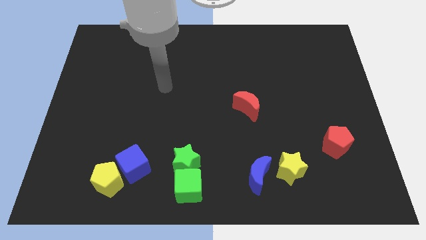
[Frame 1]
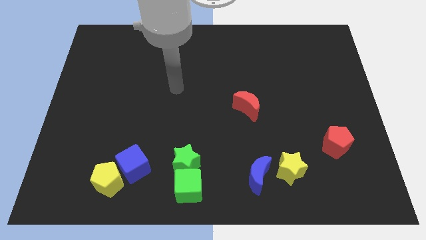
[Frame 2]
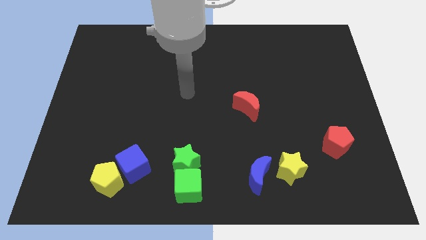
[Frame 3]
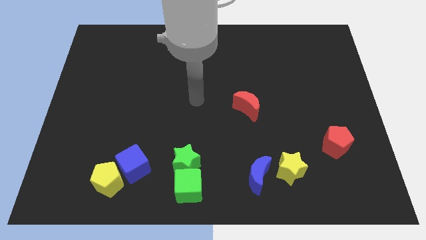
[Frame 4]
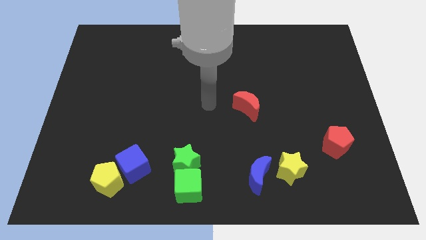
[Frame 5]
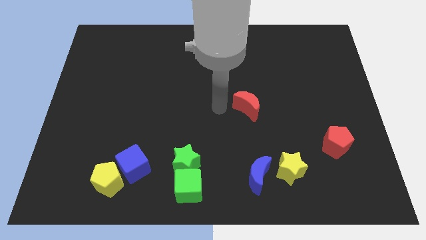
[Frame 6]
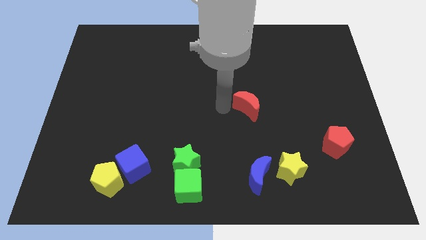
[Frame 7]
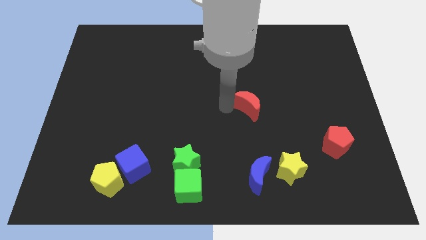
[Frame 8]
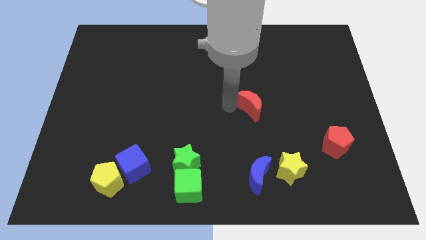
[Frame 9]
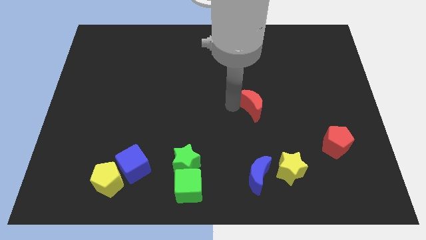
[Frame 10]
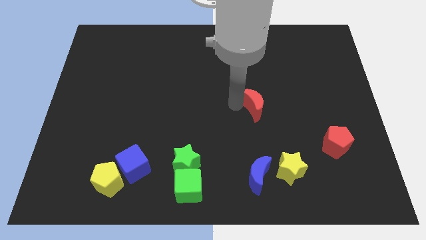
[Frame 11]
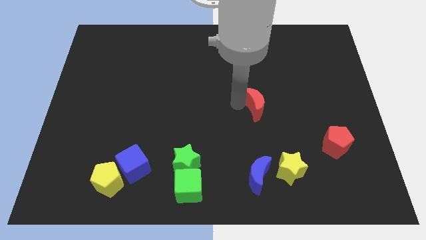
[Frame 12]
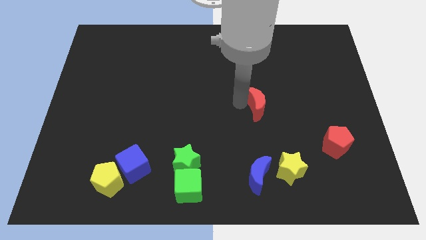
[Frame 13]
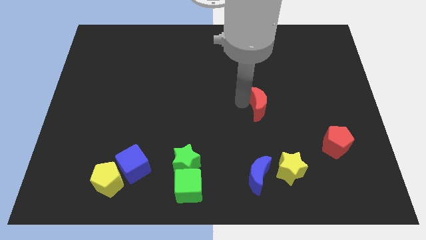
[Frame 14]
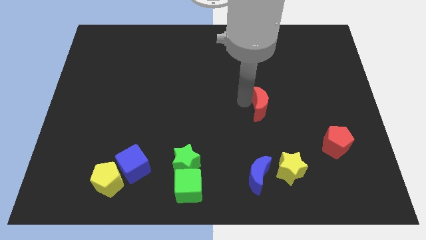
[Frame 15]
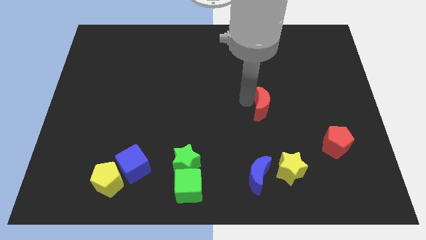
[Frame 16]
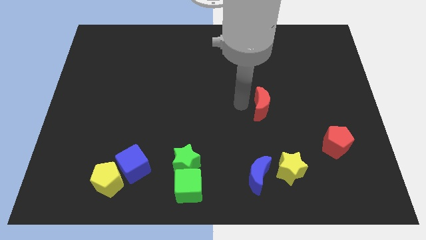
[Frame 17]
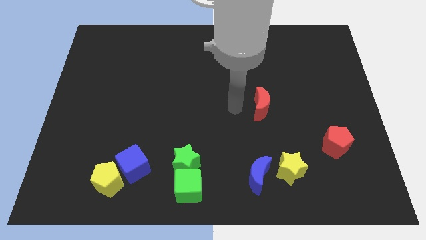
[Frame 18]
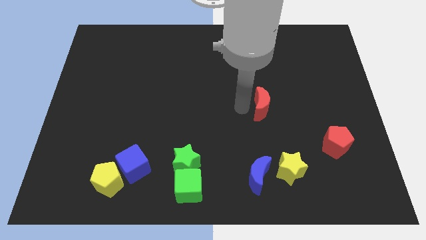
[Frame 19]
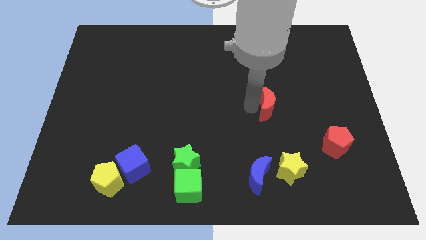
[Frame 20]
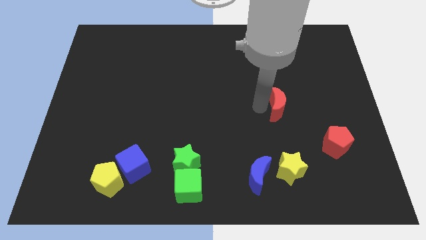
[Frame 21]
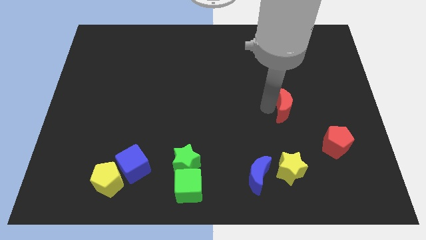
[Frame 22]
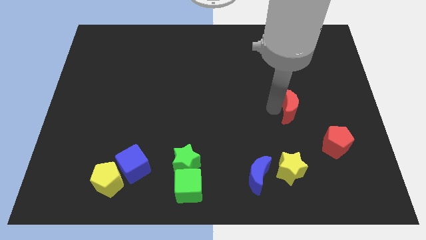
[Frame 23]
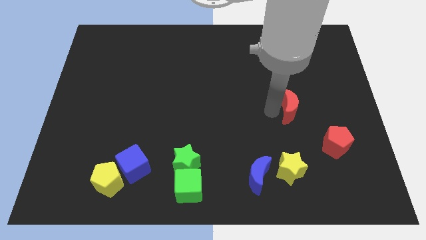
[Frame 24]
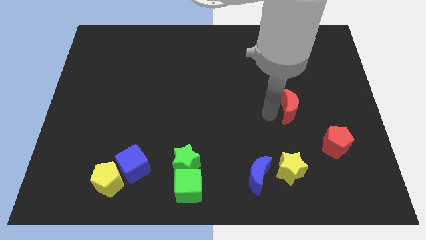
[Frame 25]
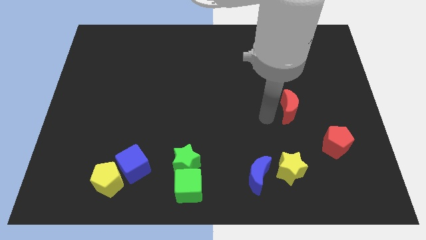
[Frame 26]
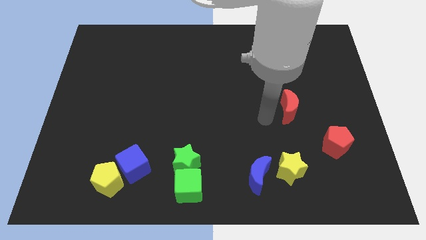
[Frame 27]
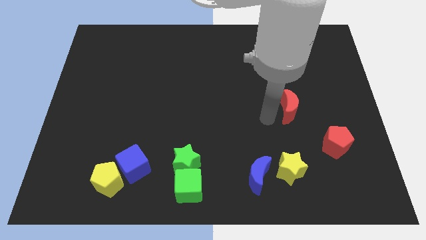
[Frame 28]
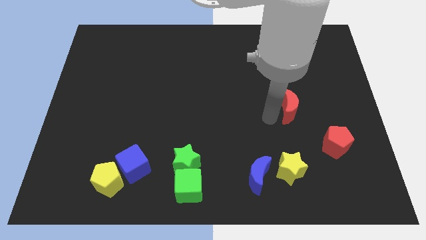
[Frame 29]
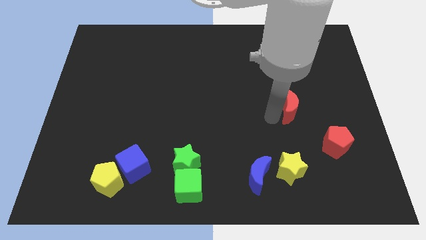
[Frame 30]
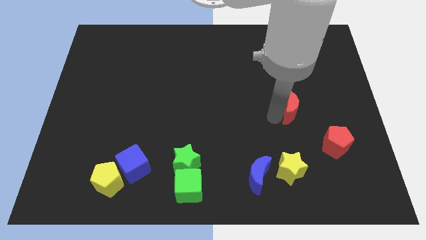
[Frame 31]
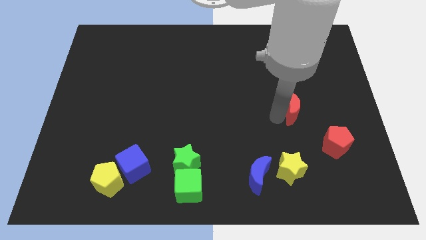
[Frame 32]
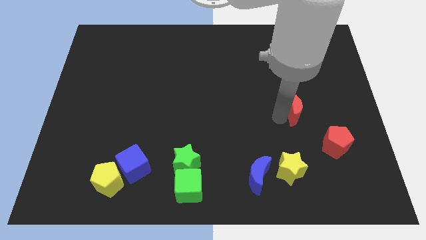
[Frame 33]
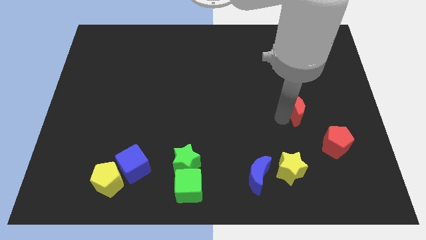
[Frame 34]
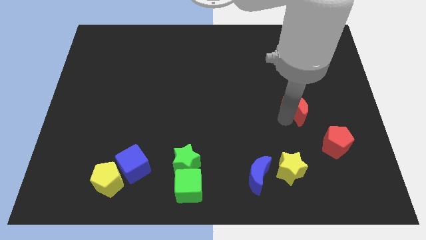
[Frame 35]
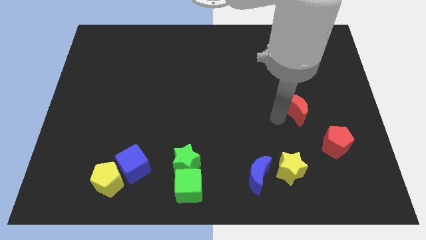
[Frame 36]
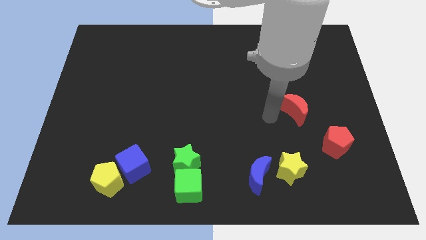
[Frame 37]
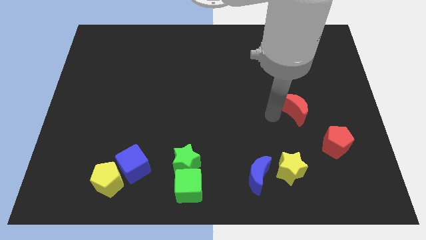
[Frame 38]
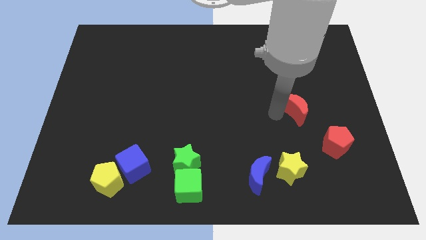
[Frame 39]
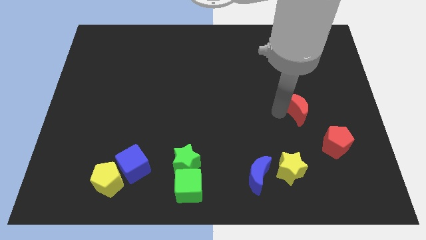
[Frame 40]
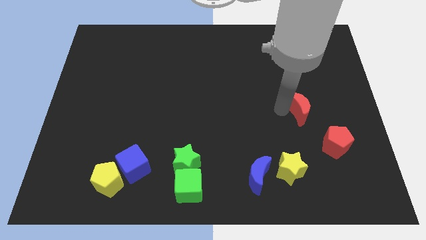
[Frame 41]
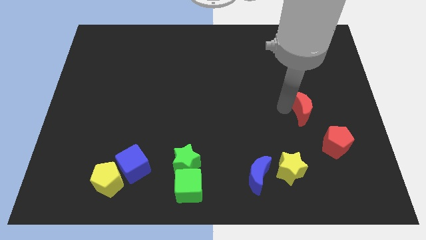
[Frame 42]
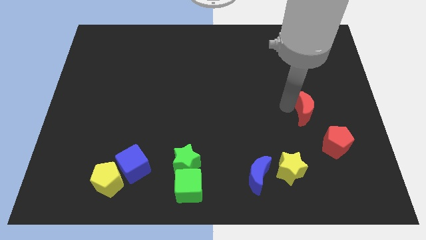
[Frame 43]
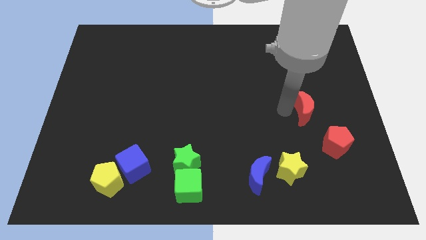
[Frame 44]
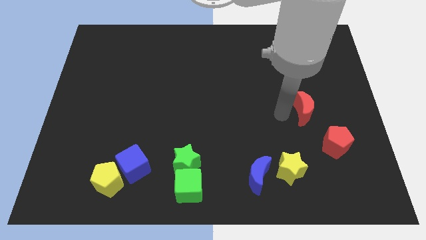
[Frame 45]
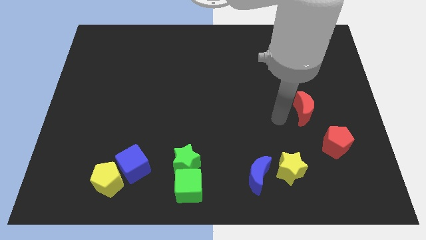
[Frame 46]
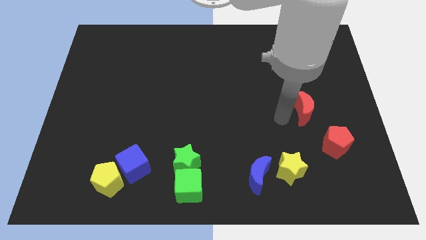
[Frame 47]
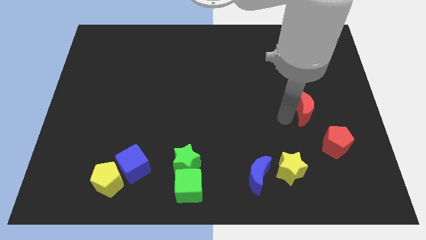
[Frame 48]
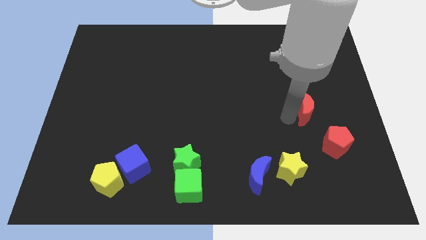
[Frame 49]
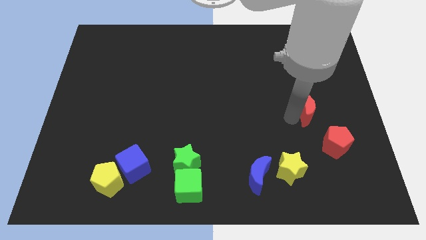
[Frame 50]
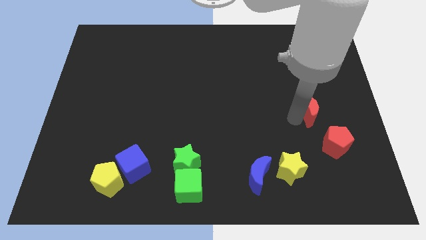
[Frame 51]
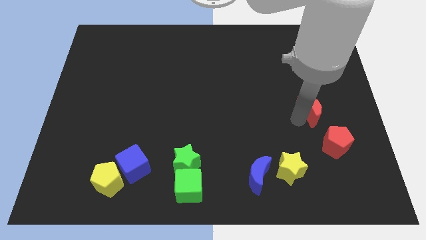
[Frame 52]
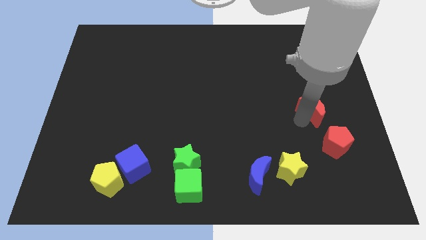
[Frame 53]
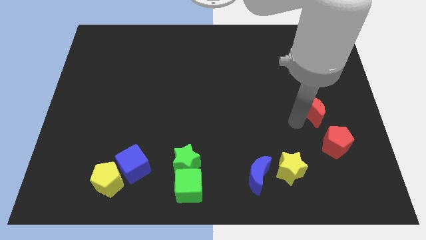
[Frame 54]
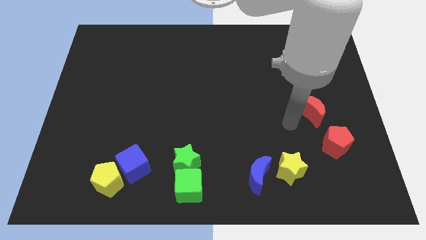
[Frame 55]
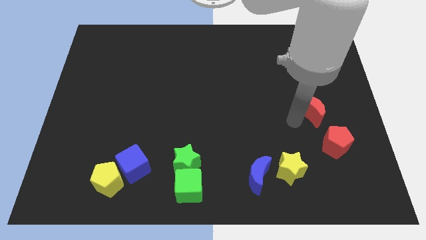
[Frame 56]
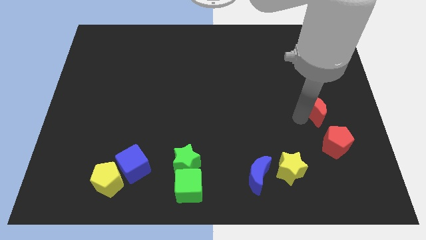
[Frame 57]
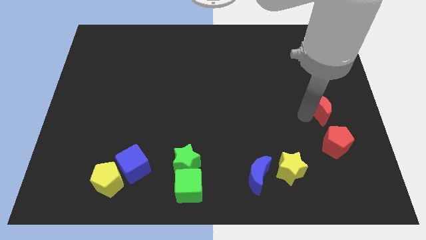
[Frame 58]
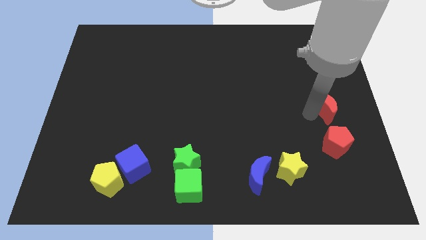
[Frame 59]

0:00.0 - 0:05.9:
slide the red moon to the right side of the board
